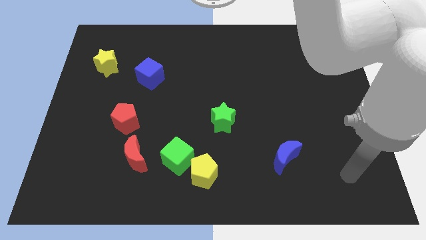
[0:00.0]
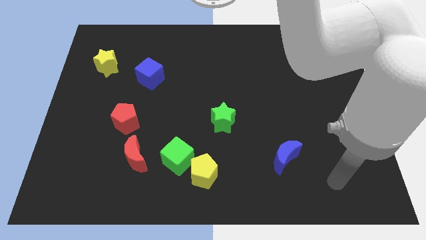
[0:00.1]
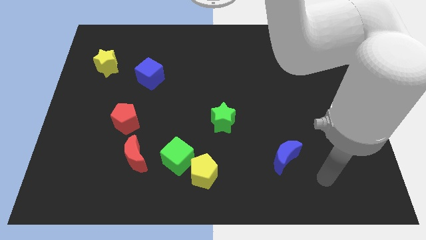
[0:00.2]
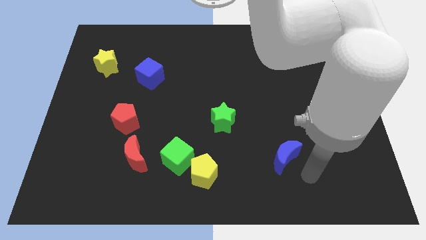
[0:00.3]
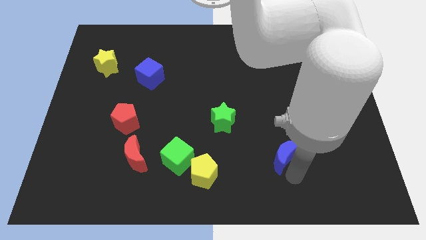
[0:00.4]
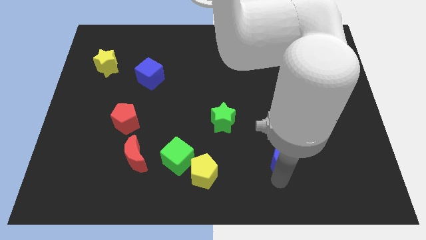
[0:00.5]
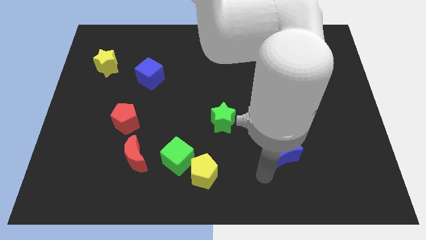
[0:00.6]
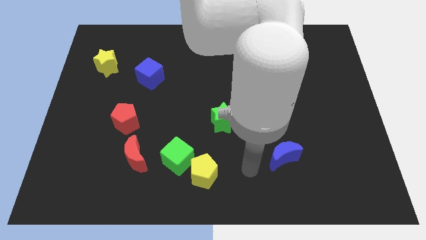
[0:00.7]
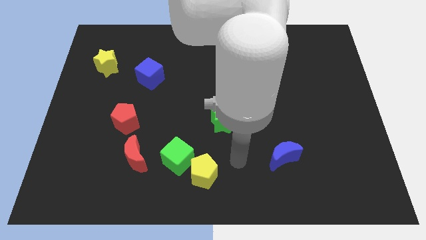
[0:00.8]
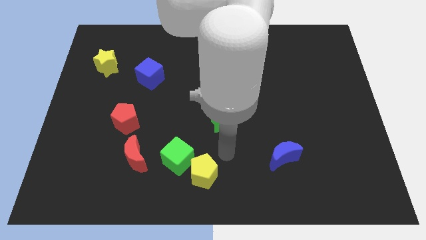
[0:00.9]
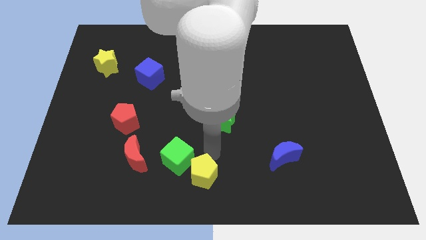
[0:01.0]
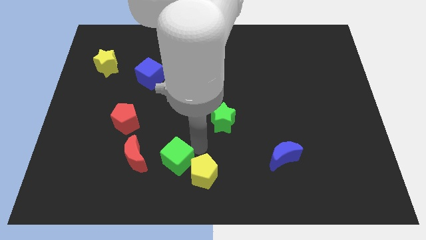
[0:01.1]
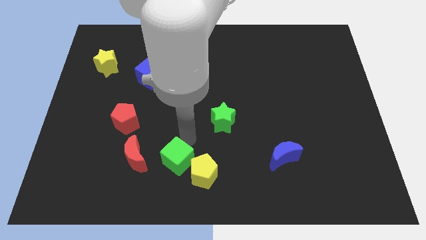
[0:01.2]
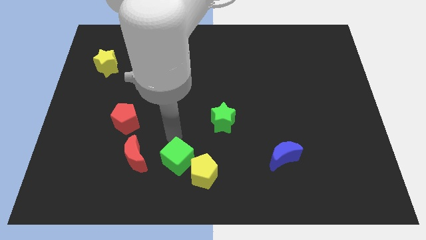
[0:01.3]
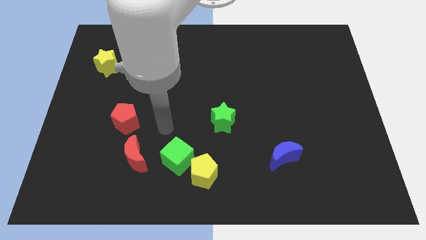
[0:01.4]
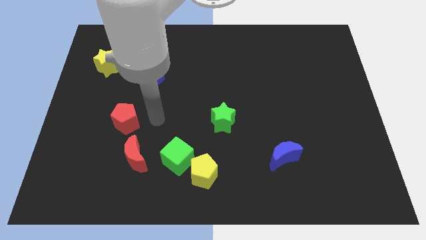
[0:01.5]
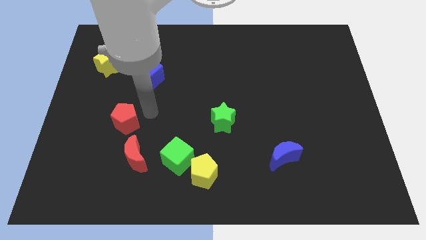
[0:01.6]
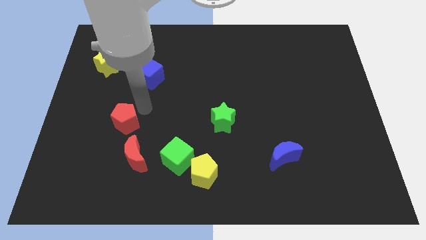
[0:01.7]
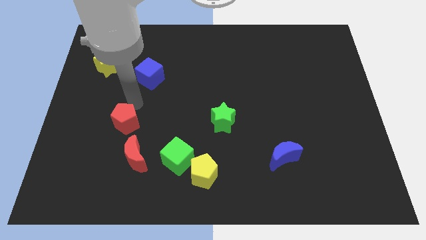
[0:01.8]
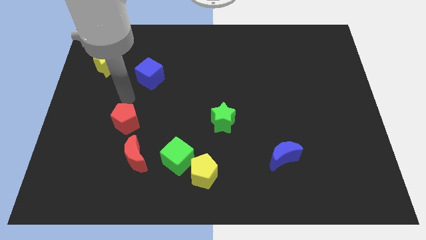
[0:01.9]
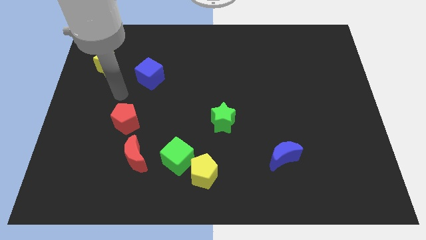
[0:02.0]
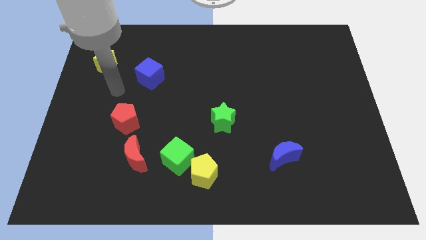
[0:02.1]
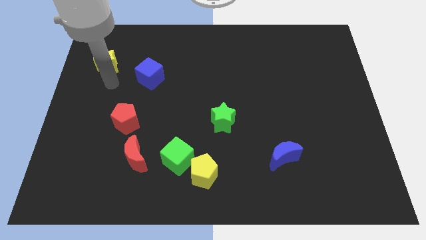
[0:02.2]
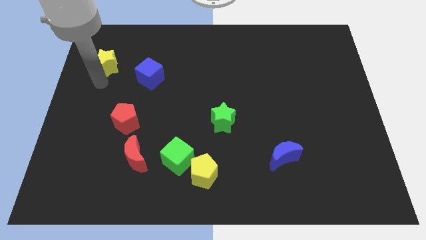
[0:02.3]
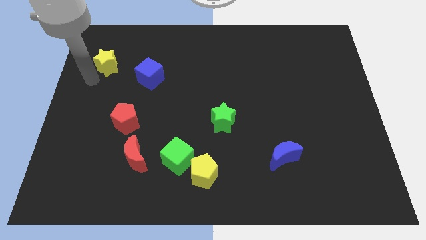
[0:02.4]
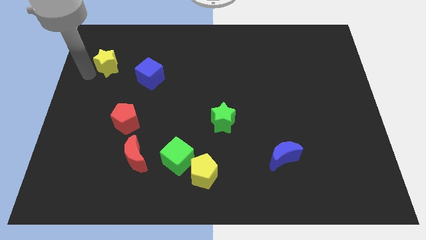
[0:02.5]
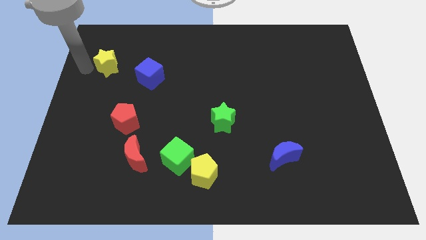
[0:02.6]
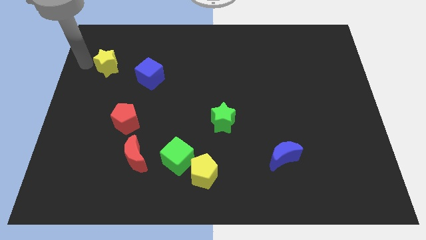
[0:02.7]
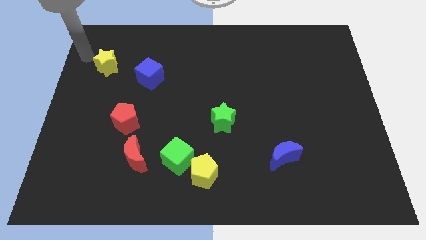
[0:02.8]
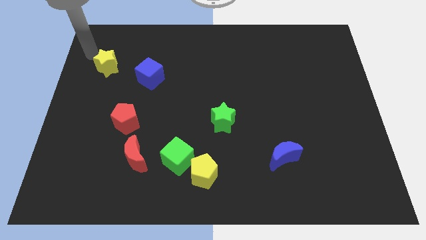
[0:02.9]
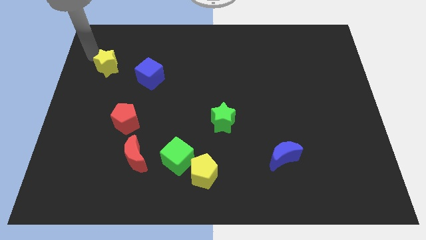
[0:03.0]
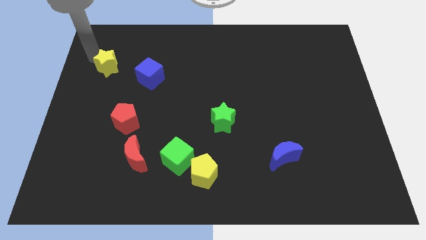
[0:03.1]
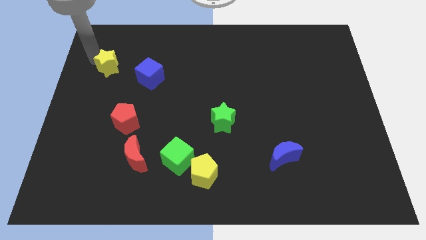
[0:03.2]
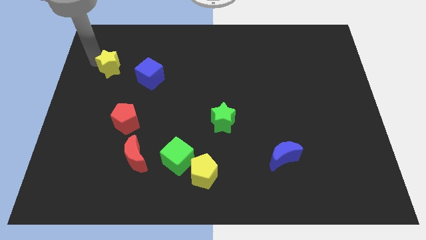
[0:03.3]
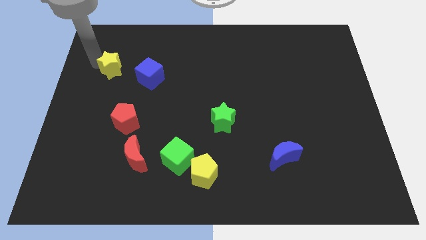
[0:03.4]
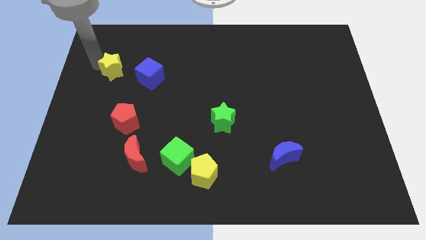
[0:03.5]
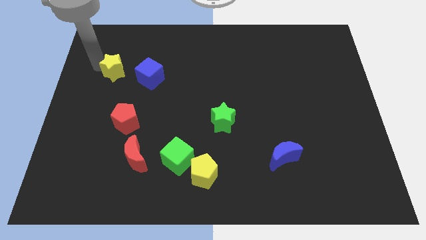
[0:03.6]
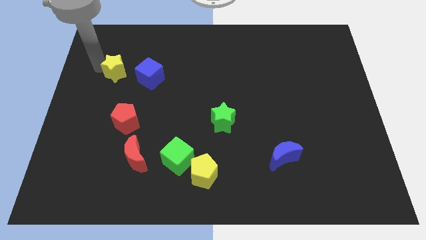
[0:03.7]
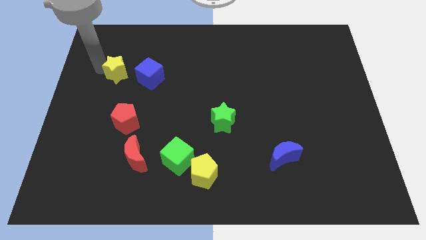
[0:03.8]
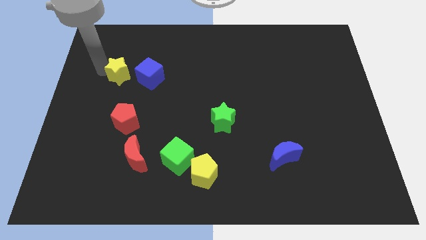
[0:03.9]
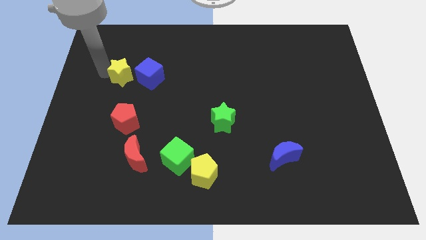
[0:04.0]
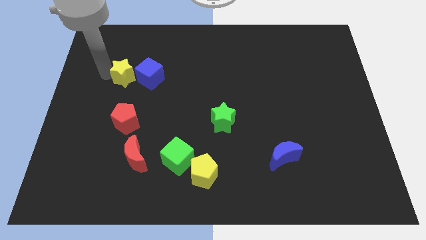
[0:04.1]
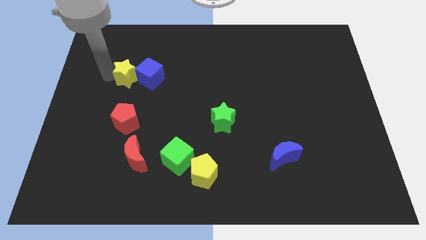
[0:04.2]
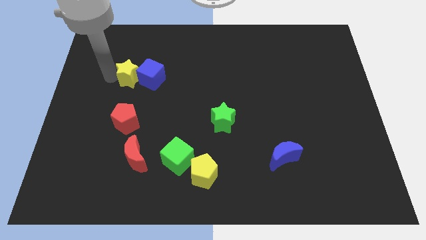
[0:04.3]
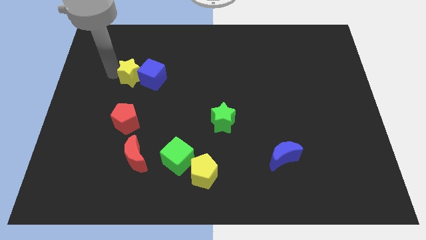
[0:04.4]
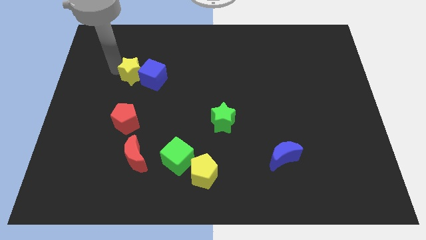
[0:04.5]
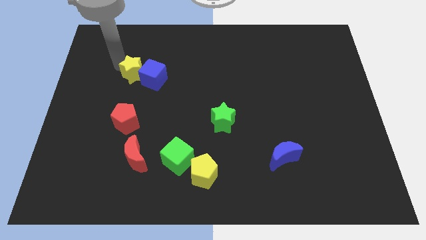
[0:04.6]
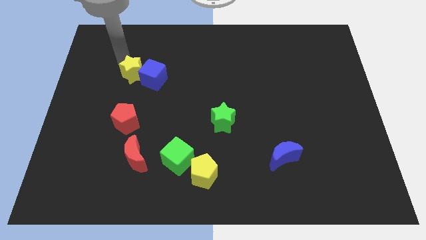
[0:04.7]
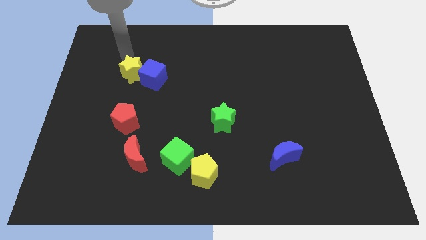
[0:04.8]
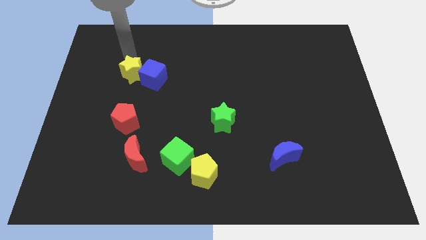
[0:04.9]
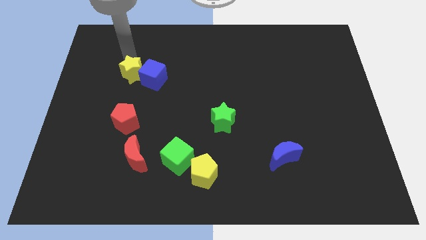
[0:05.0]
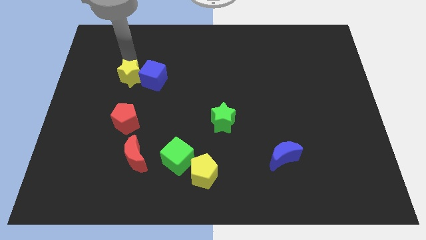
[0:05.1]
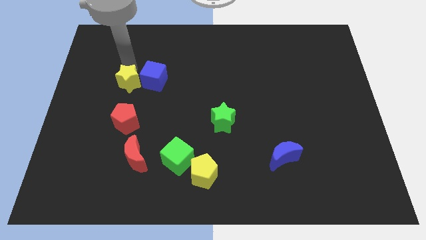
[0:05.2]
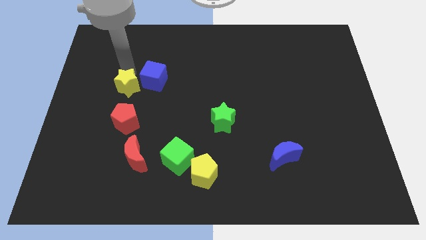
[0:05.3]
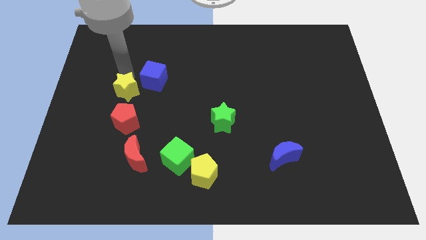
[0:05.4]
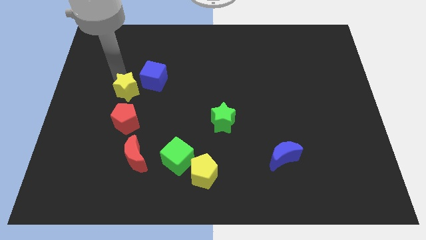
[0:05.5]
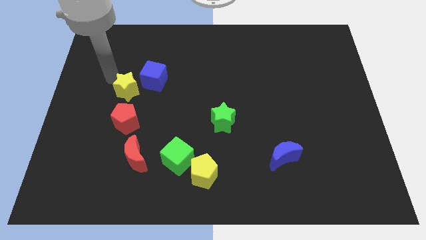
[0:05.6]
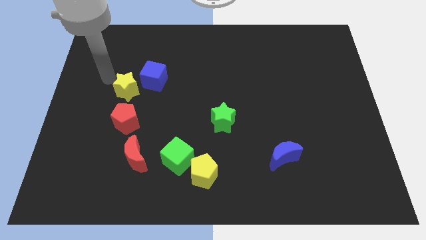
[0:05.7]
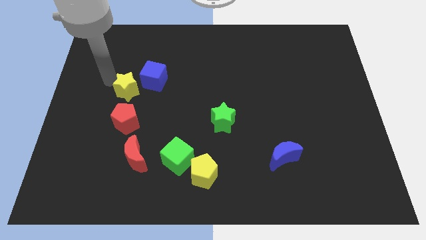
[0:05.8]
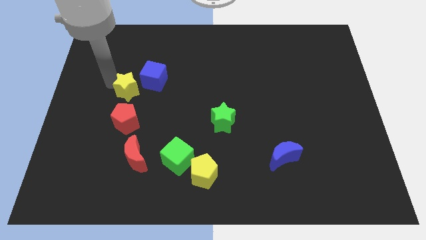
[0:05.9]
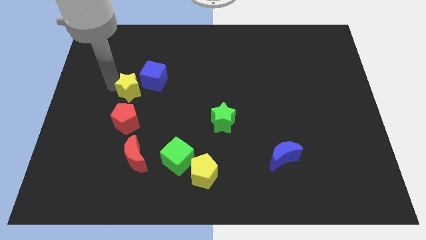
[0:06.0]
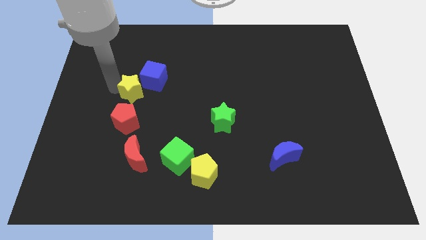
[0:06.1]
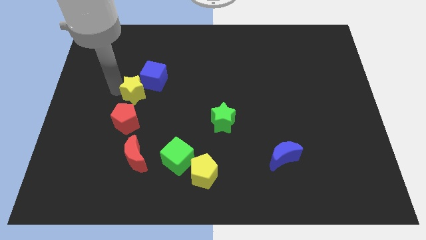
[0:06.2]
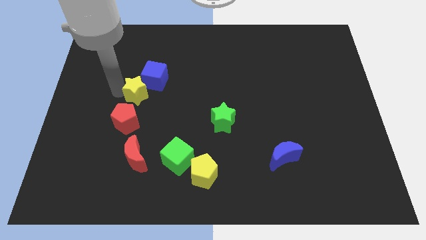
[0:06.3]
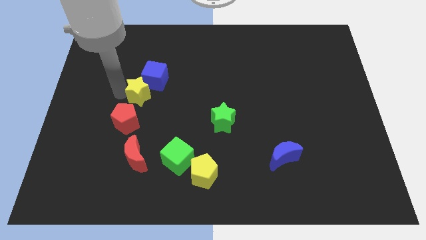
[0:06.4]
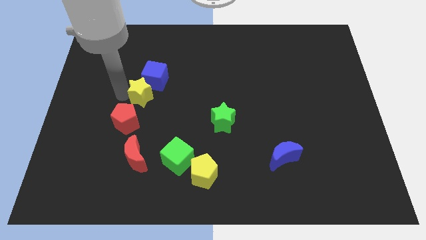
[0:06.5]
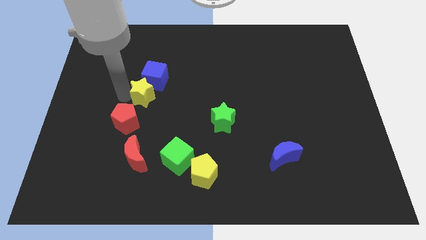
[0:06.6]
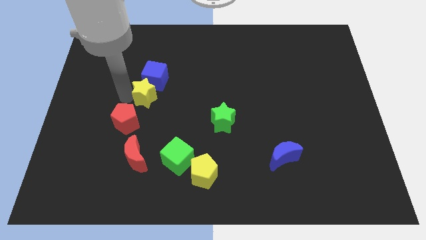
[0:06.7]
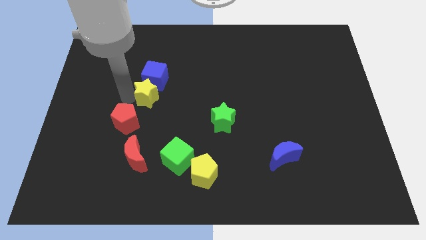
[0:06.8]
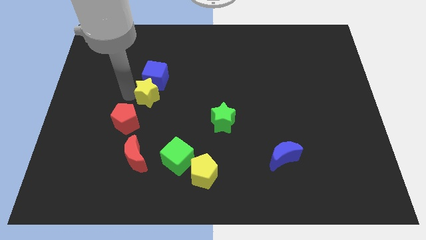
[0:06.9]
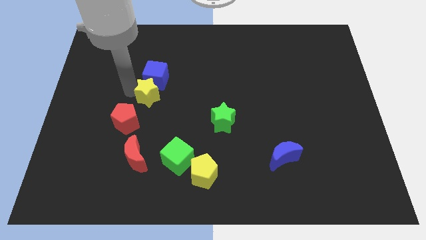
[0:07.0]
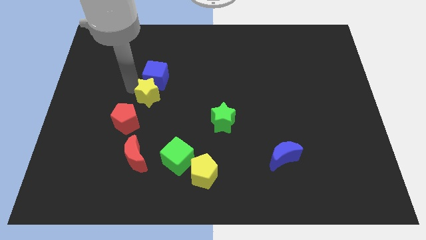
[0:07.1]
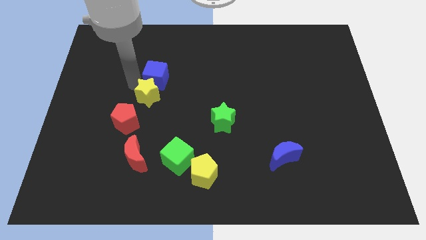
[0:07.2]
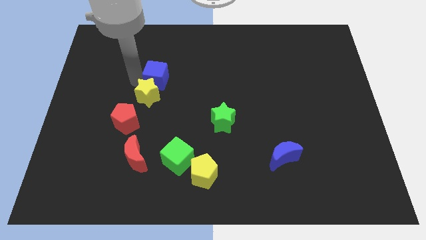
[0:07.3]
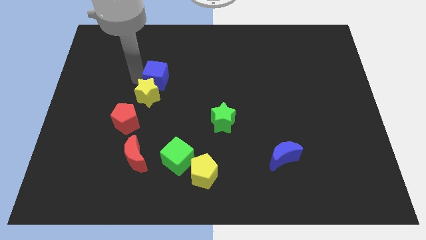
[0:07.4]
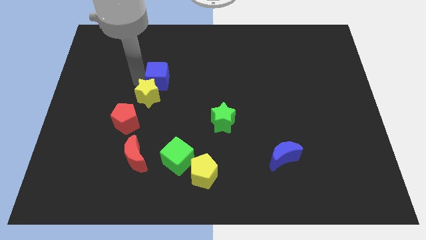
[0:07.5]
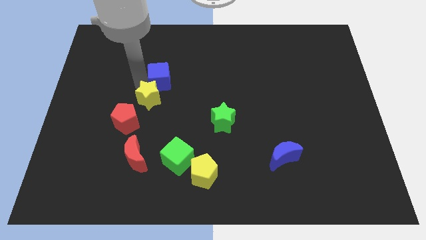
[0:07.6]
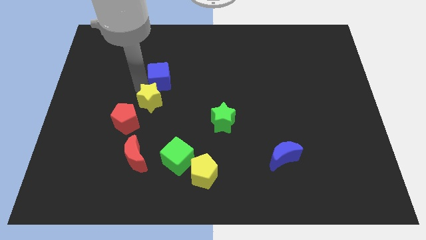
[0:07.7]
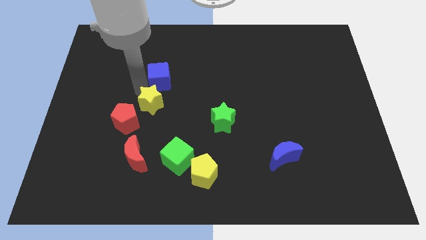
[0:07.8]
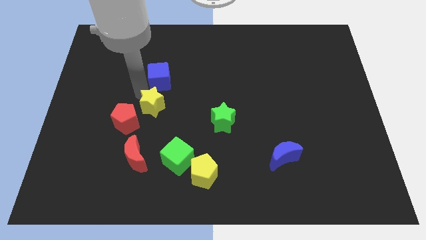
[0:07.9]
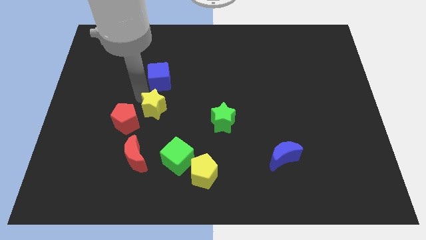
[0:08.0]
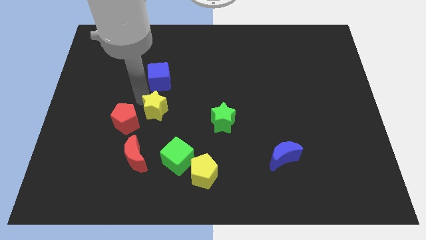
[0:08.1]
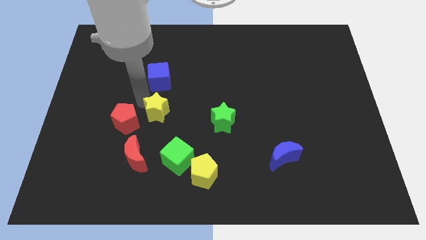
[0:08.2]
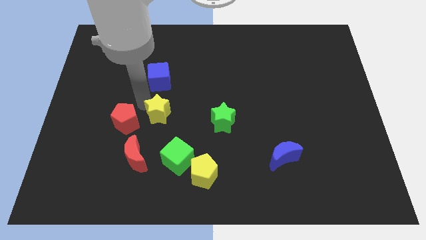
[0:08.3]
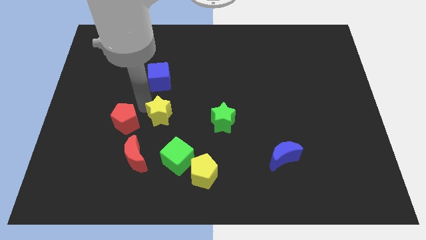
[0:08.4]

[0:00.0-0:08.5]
slide the yellow star above the green cube
